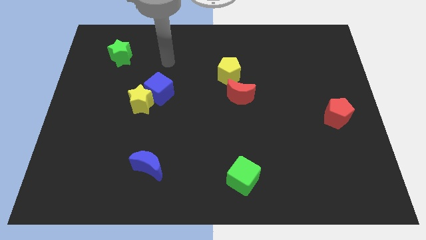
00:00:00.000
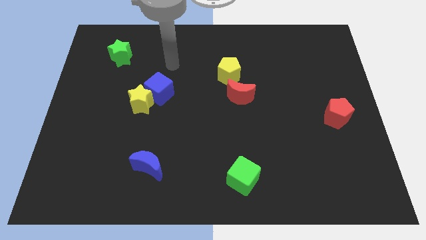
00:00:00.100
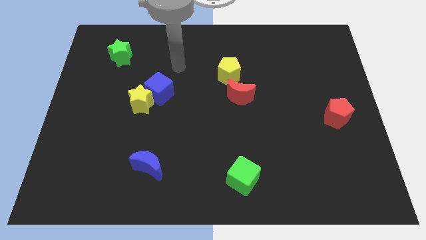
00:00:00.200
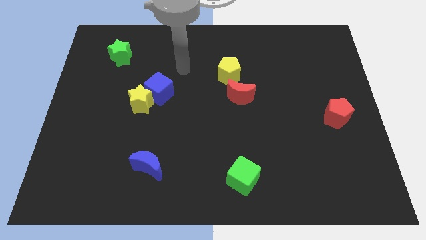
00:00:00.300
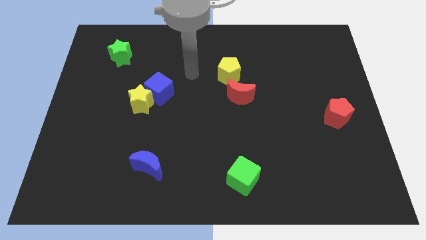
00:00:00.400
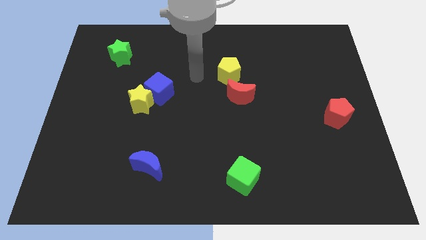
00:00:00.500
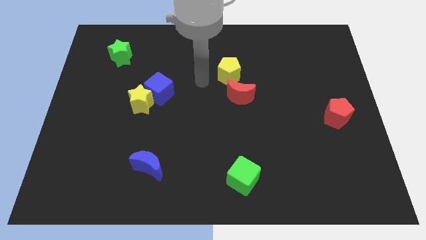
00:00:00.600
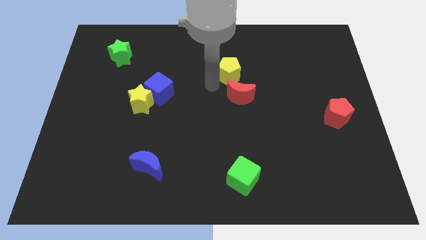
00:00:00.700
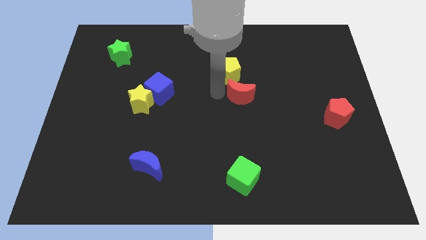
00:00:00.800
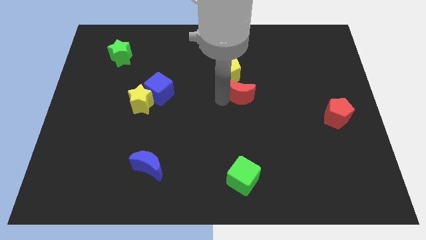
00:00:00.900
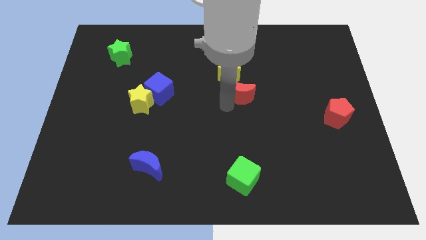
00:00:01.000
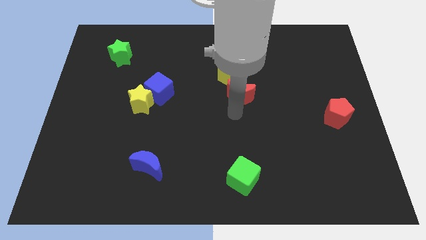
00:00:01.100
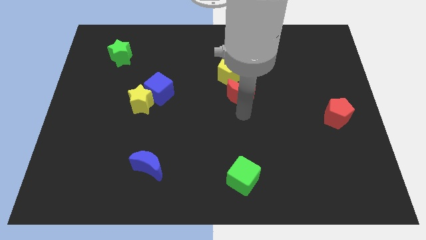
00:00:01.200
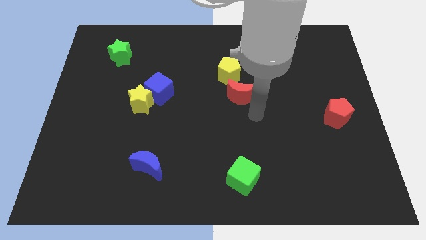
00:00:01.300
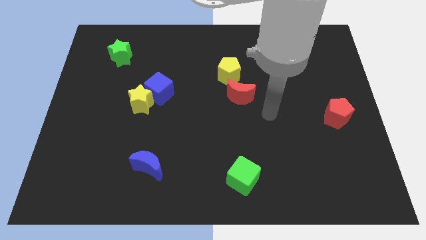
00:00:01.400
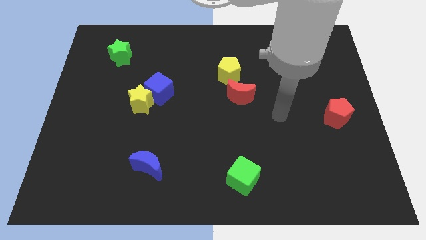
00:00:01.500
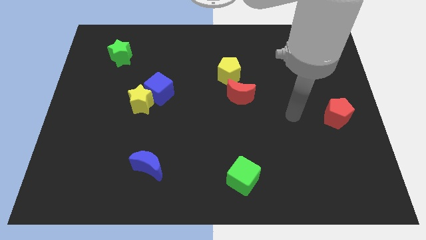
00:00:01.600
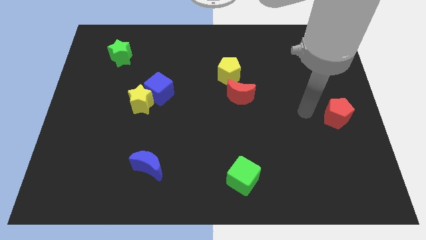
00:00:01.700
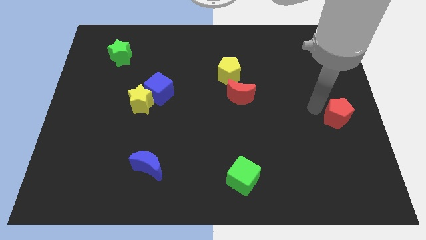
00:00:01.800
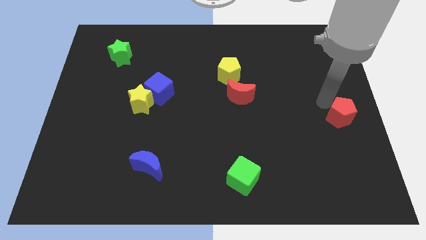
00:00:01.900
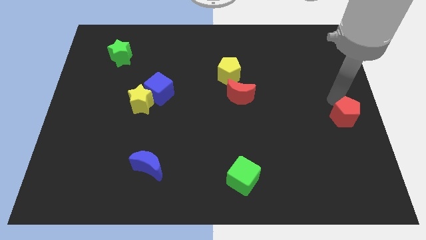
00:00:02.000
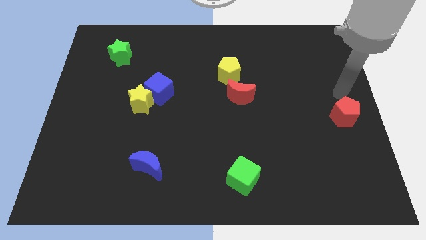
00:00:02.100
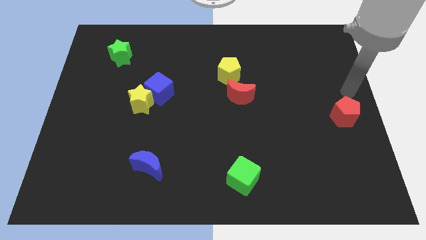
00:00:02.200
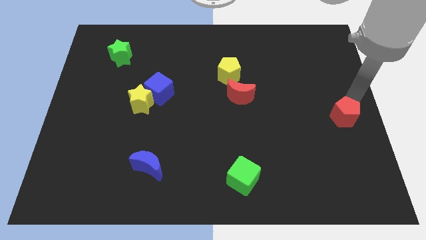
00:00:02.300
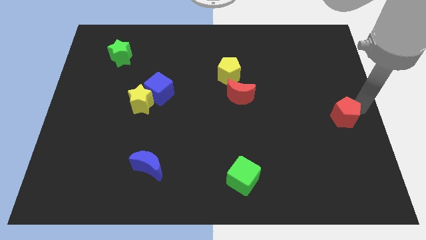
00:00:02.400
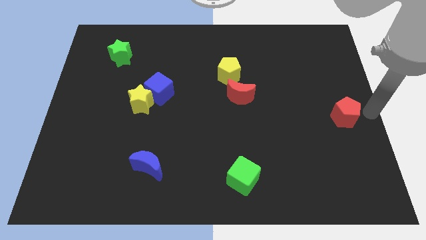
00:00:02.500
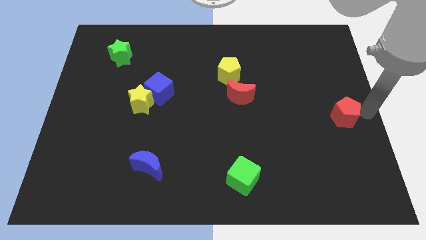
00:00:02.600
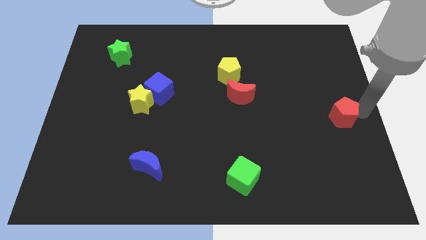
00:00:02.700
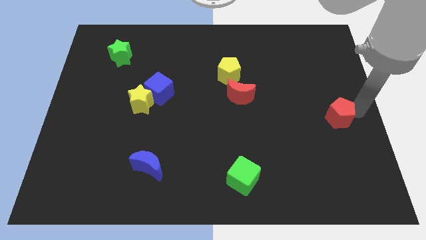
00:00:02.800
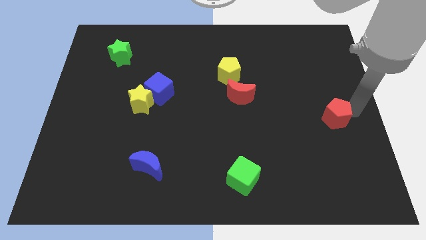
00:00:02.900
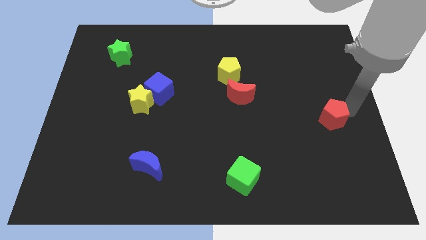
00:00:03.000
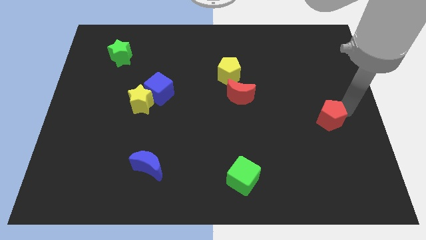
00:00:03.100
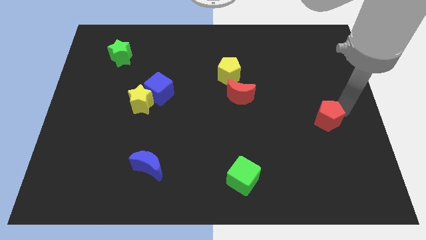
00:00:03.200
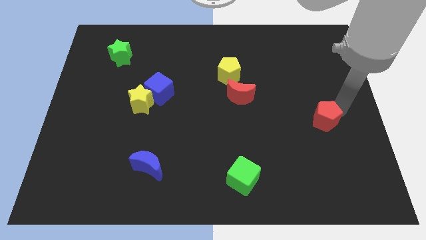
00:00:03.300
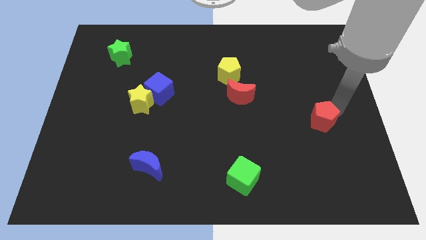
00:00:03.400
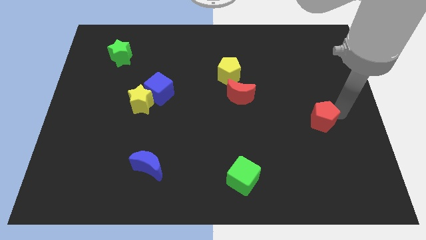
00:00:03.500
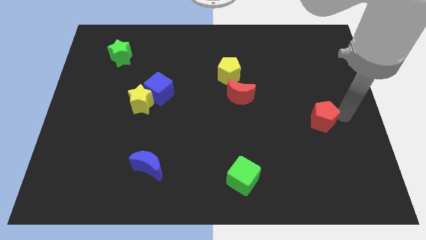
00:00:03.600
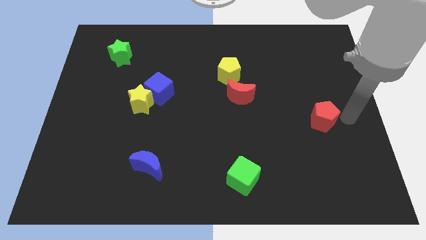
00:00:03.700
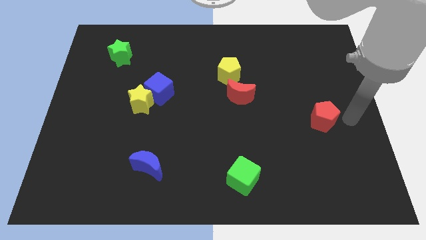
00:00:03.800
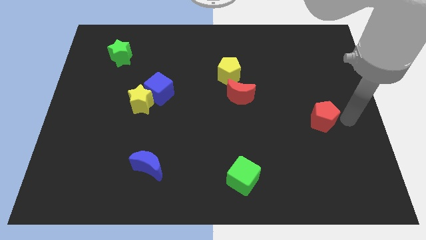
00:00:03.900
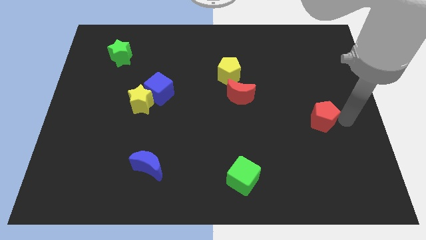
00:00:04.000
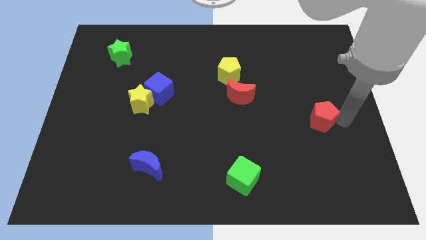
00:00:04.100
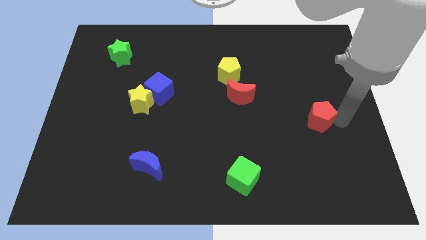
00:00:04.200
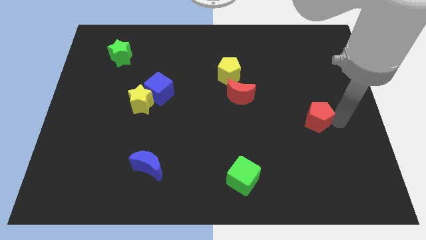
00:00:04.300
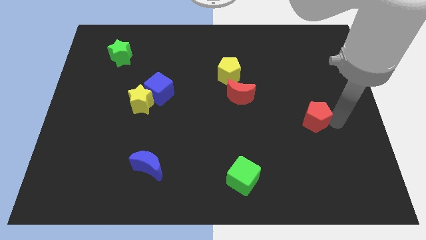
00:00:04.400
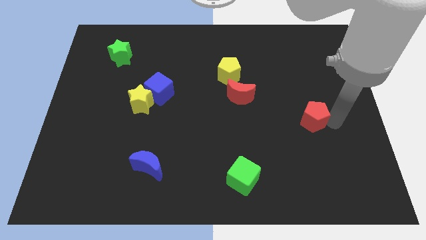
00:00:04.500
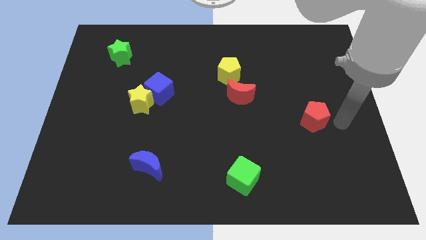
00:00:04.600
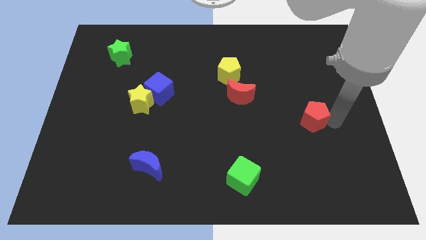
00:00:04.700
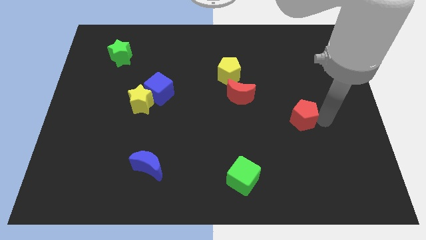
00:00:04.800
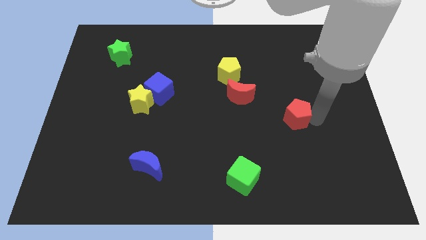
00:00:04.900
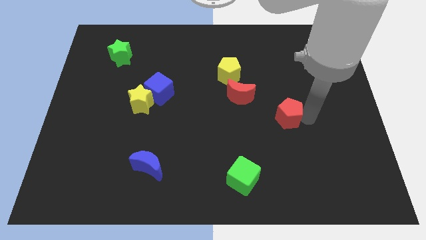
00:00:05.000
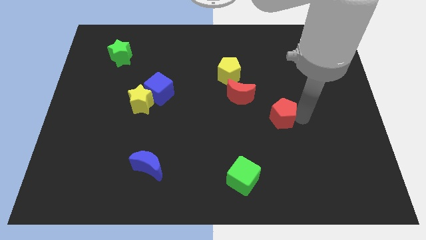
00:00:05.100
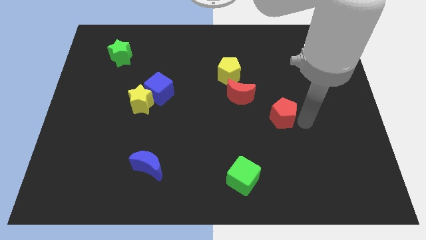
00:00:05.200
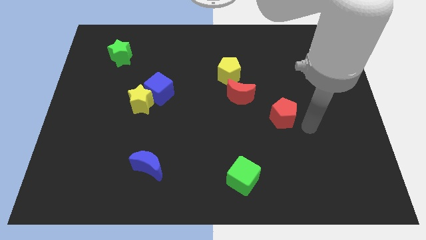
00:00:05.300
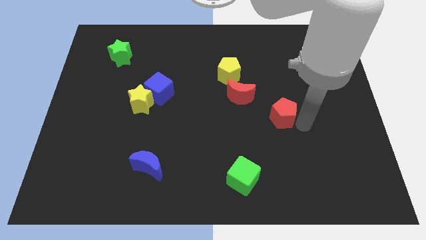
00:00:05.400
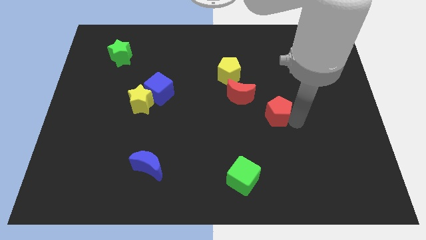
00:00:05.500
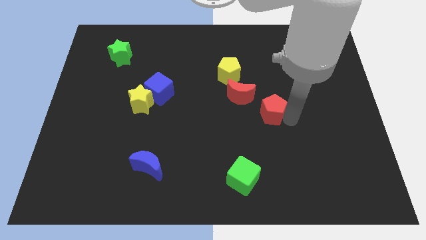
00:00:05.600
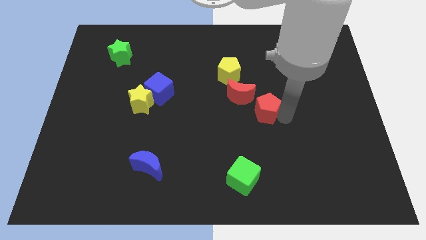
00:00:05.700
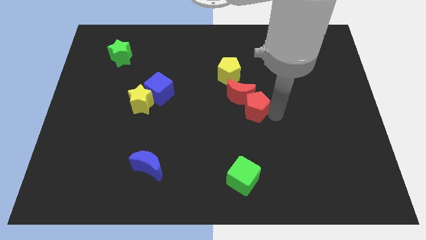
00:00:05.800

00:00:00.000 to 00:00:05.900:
slide the red pentagon next to the red moon

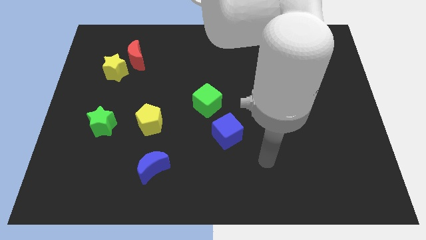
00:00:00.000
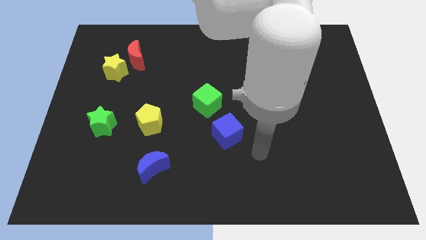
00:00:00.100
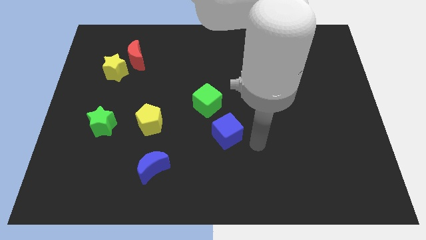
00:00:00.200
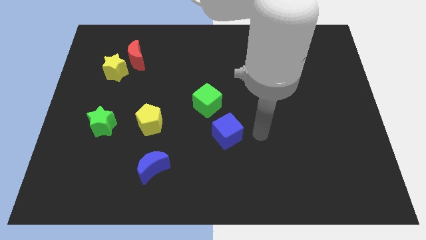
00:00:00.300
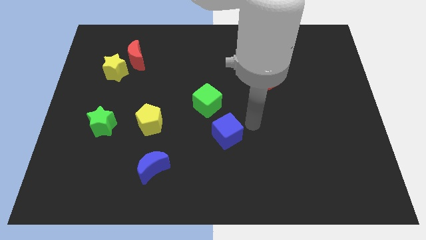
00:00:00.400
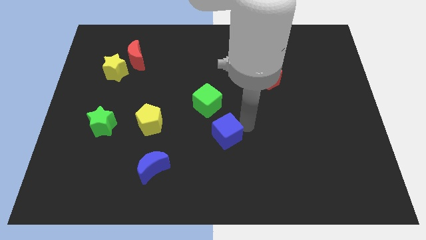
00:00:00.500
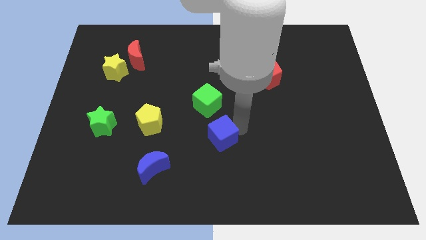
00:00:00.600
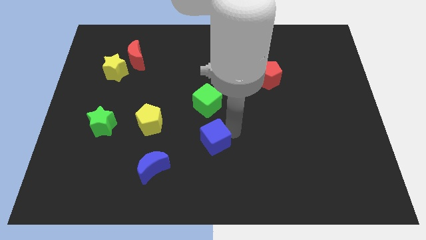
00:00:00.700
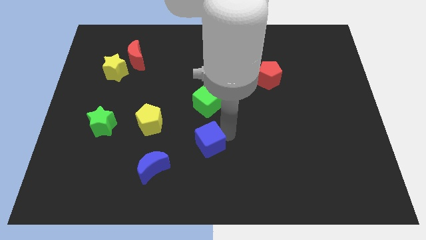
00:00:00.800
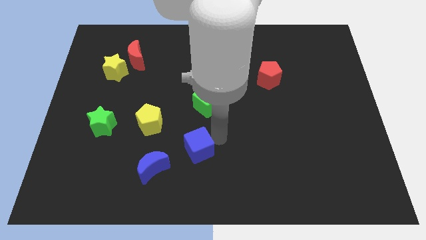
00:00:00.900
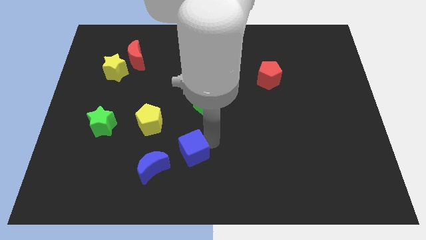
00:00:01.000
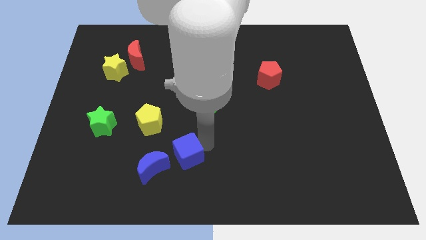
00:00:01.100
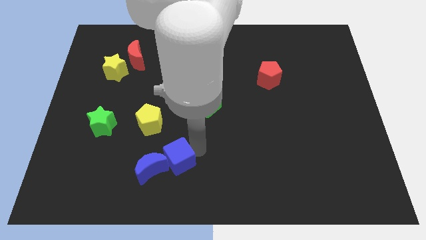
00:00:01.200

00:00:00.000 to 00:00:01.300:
slide the blue cube to the blue moon

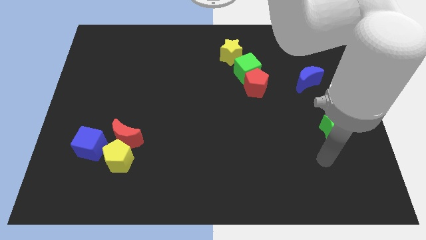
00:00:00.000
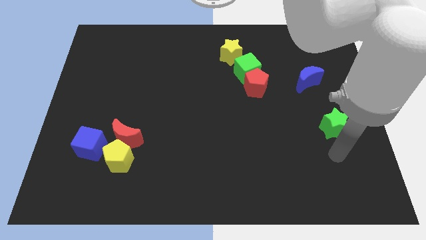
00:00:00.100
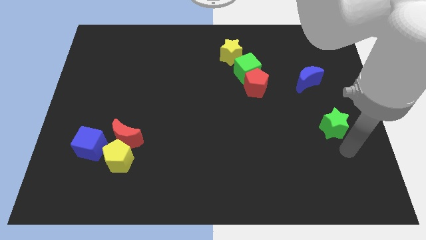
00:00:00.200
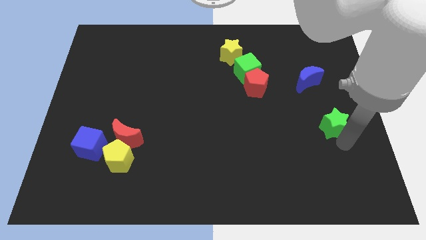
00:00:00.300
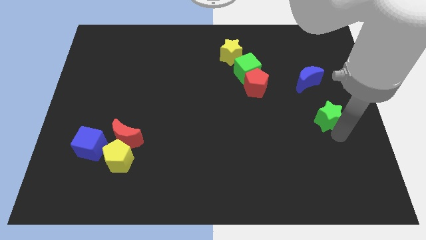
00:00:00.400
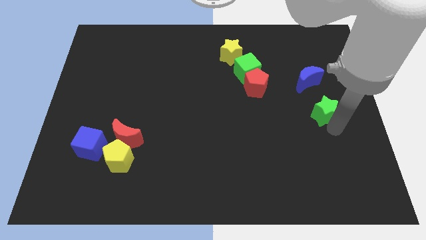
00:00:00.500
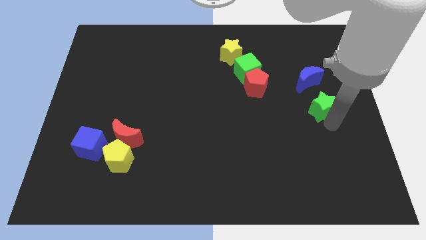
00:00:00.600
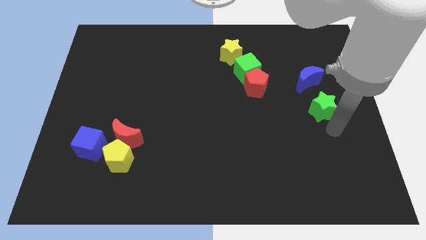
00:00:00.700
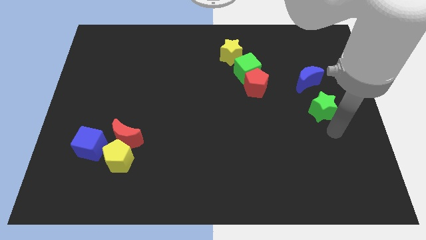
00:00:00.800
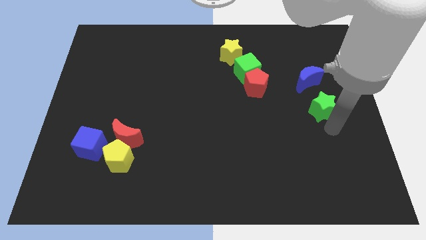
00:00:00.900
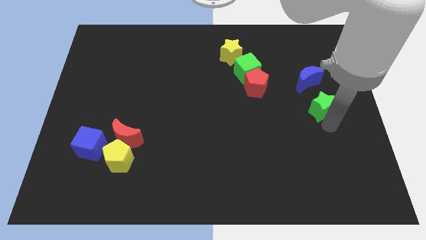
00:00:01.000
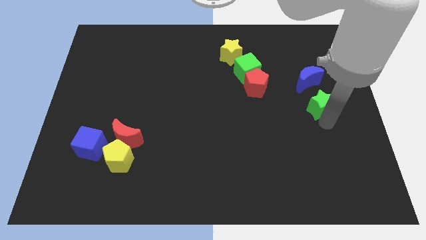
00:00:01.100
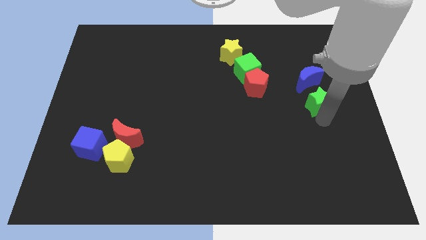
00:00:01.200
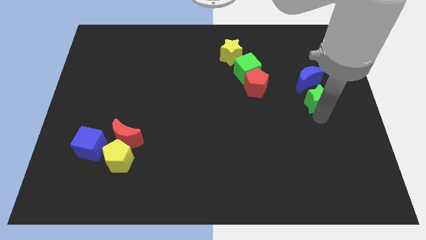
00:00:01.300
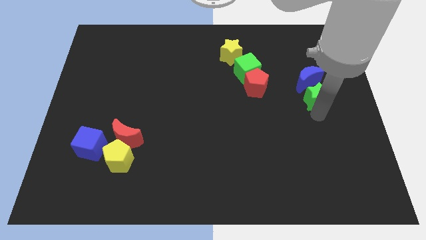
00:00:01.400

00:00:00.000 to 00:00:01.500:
move the green star to the blue moon
